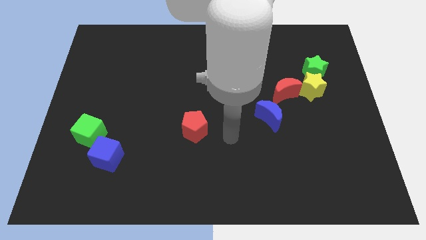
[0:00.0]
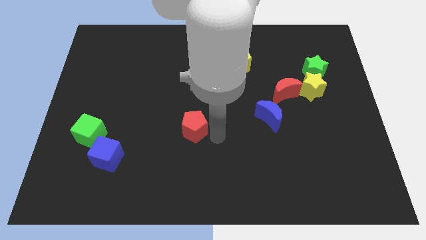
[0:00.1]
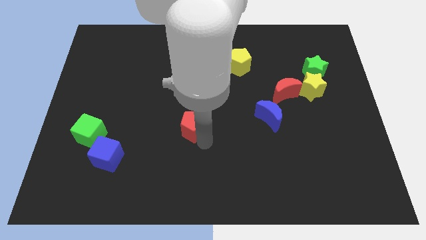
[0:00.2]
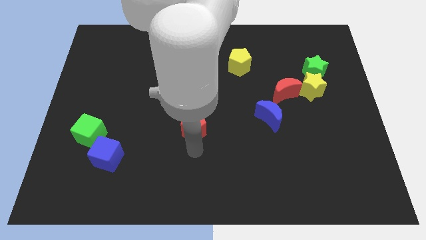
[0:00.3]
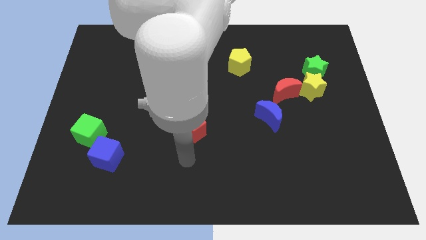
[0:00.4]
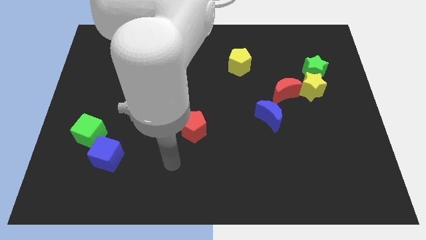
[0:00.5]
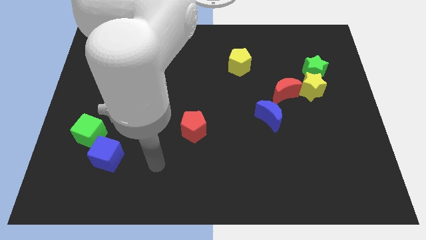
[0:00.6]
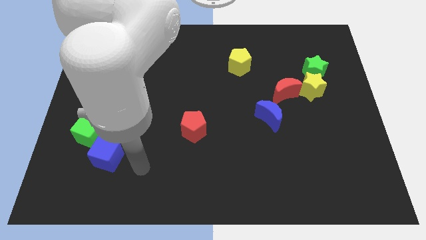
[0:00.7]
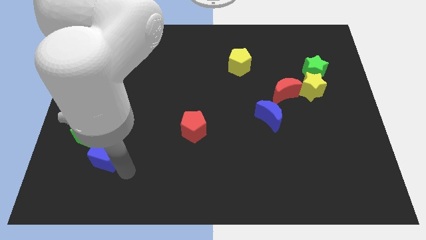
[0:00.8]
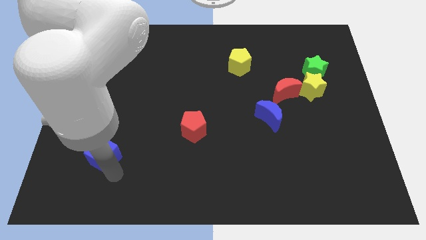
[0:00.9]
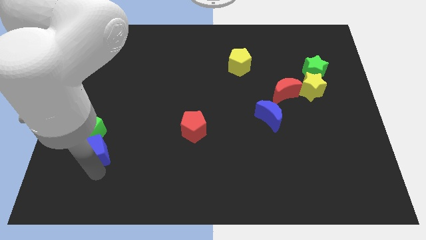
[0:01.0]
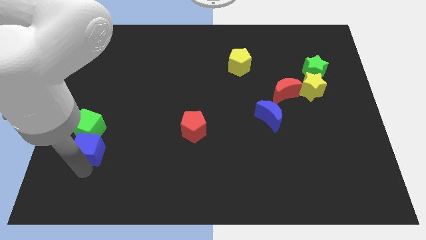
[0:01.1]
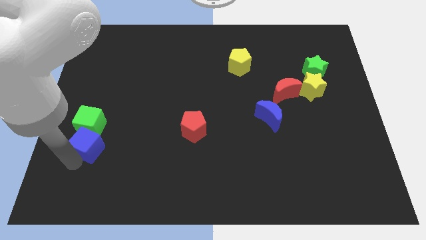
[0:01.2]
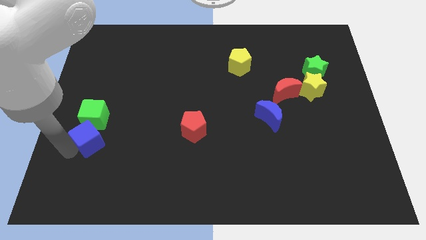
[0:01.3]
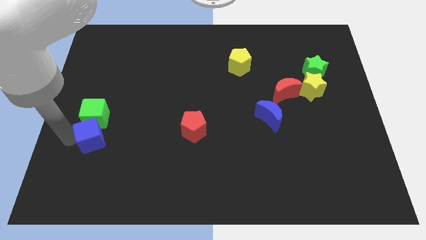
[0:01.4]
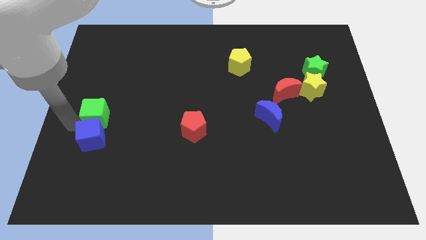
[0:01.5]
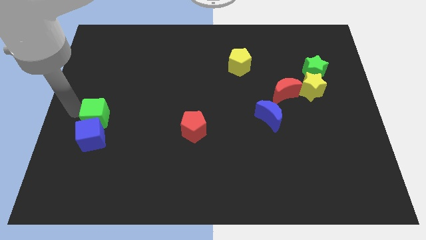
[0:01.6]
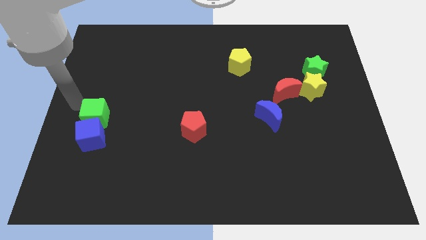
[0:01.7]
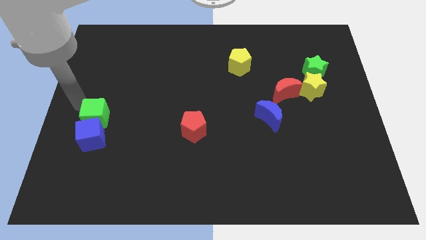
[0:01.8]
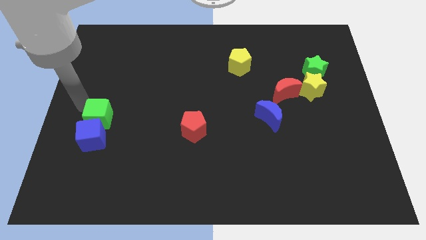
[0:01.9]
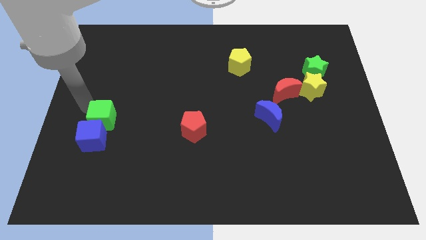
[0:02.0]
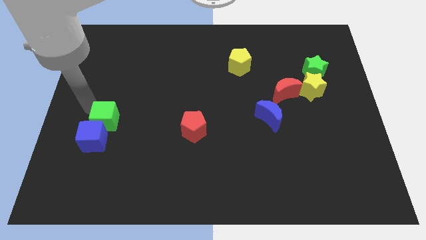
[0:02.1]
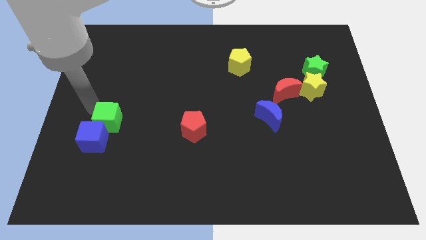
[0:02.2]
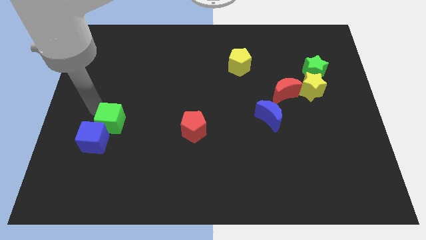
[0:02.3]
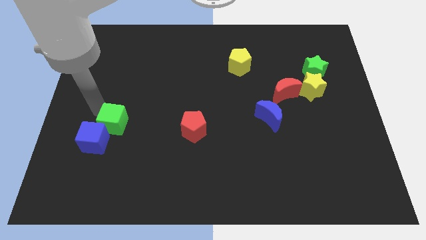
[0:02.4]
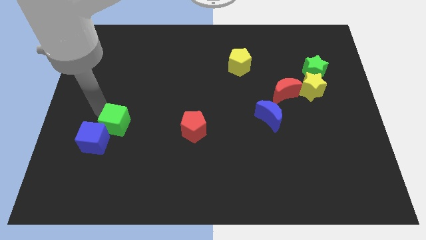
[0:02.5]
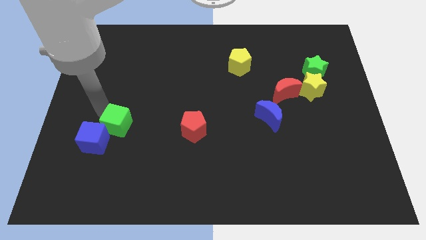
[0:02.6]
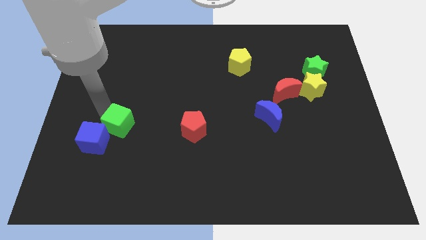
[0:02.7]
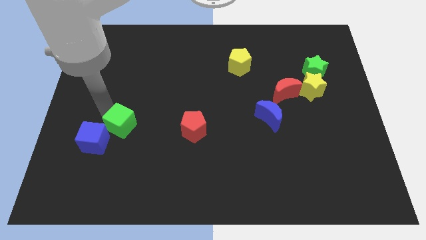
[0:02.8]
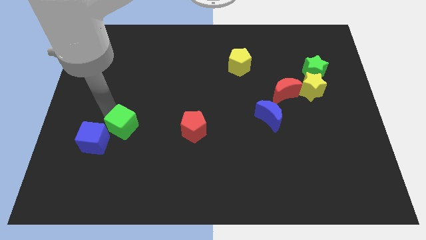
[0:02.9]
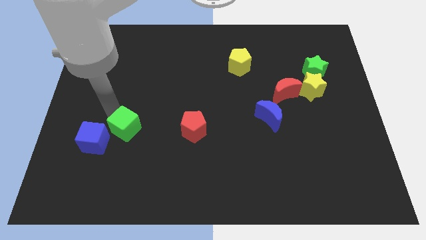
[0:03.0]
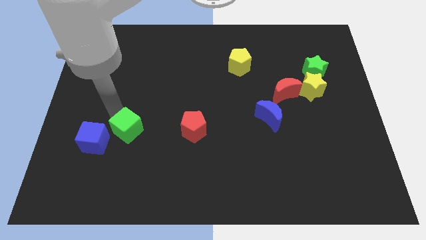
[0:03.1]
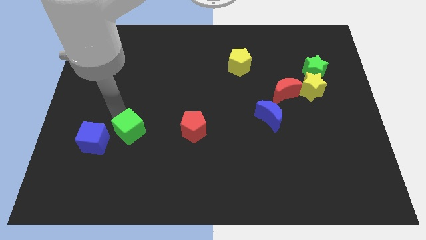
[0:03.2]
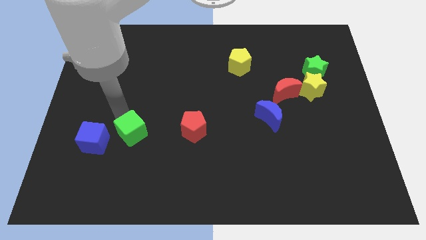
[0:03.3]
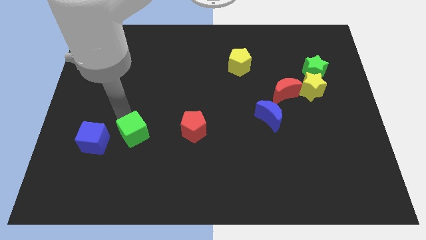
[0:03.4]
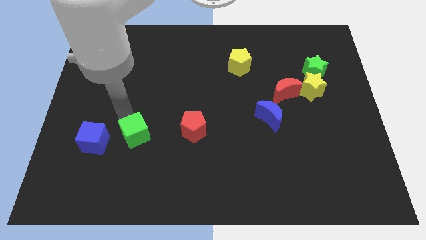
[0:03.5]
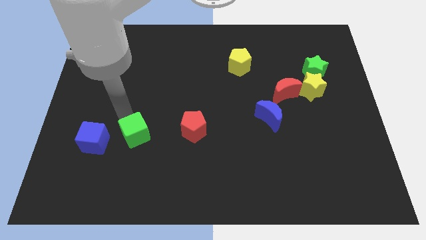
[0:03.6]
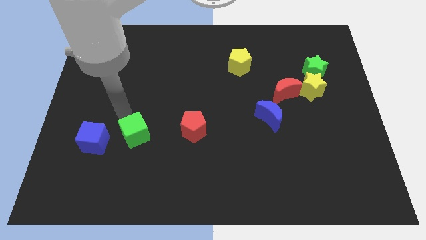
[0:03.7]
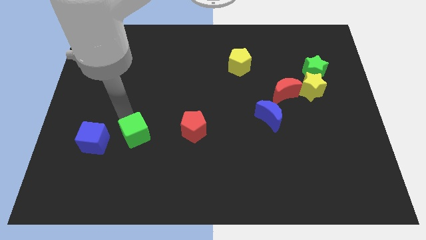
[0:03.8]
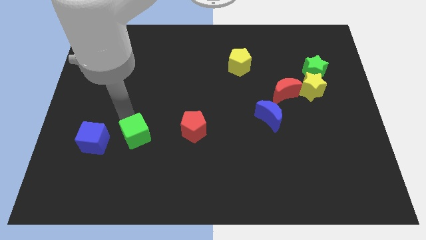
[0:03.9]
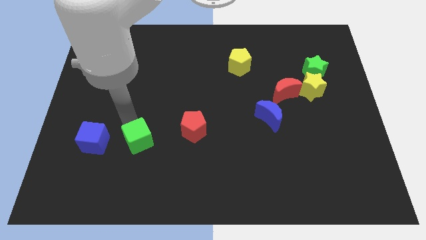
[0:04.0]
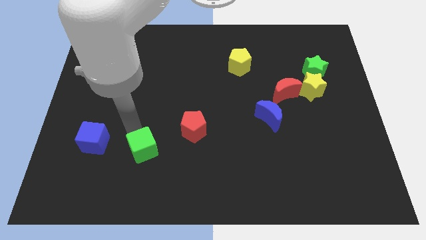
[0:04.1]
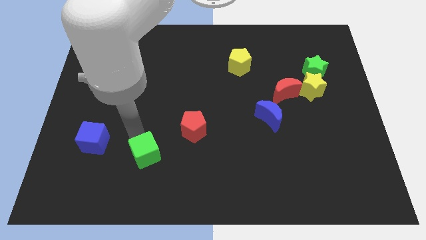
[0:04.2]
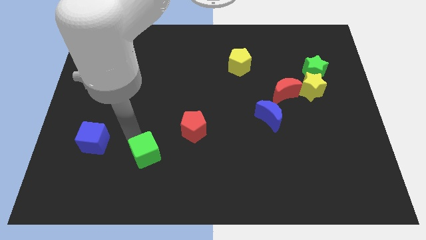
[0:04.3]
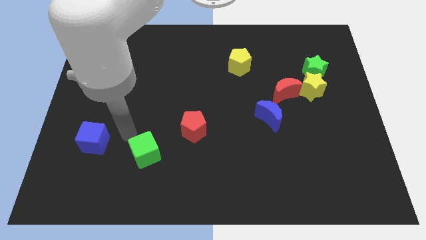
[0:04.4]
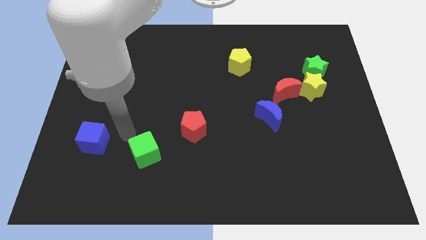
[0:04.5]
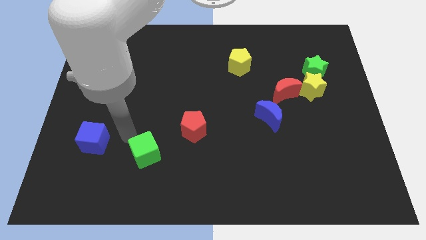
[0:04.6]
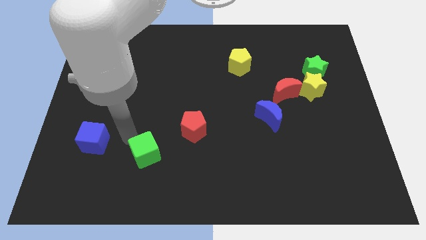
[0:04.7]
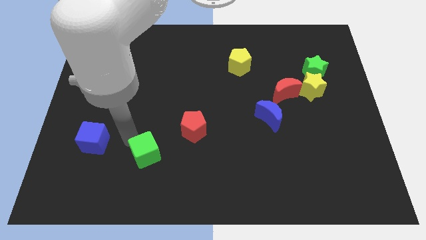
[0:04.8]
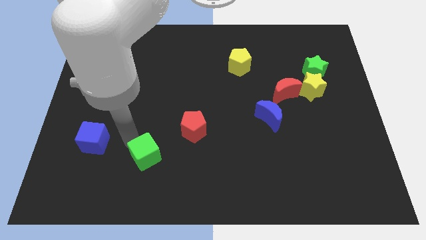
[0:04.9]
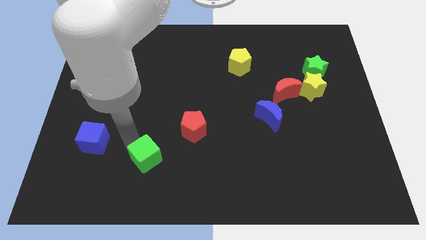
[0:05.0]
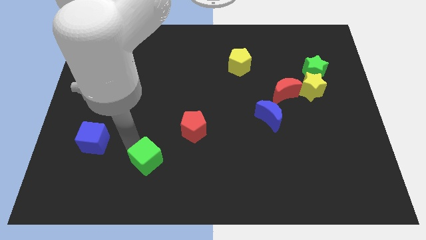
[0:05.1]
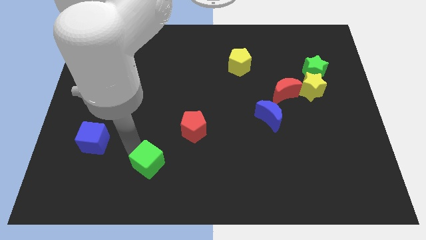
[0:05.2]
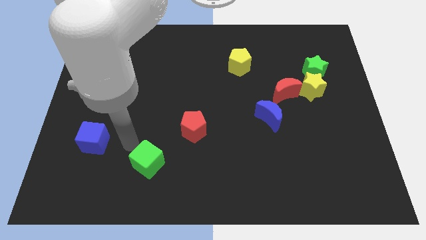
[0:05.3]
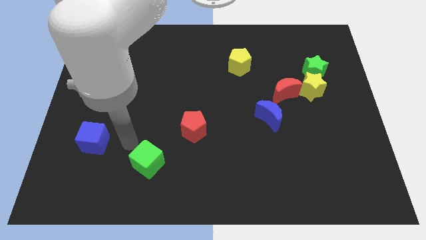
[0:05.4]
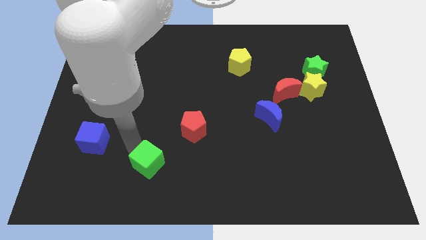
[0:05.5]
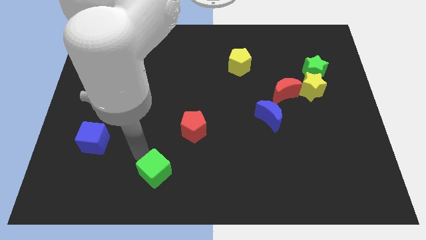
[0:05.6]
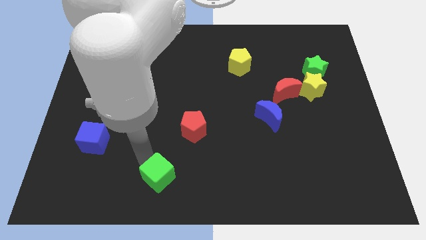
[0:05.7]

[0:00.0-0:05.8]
put the green cube to the bottom side

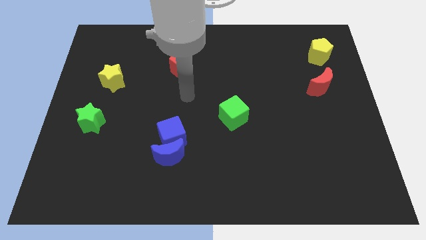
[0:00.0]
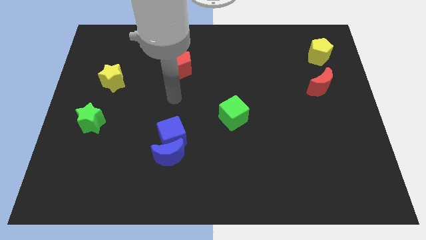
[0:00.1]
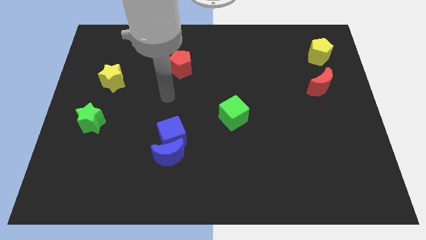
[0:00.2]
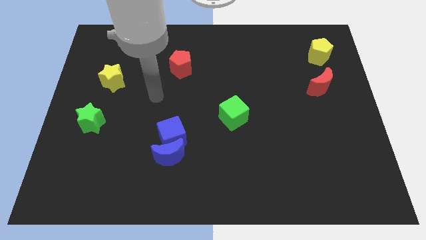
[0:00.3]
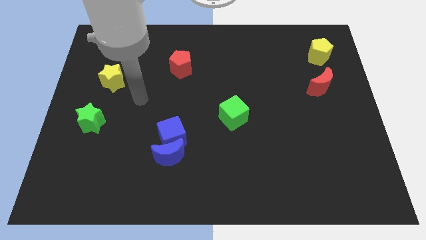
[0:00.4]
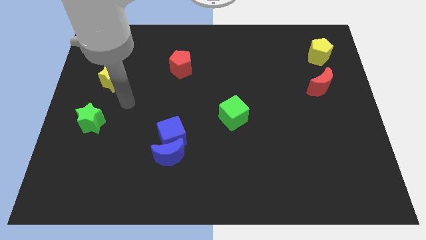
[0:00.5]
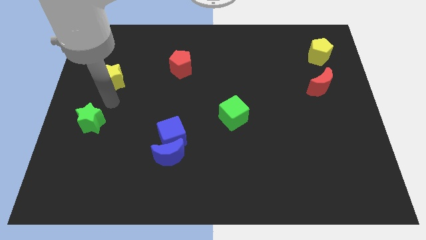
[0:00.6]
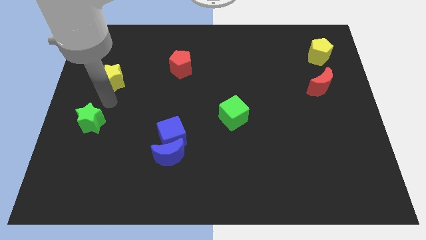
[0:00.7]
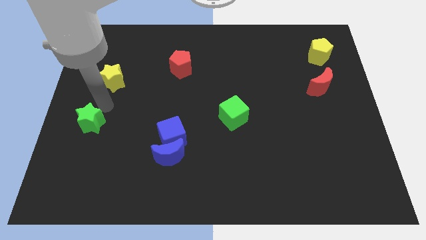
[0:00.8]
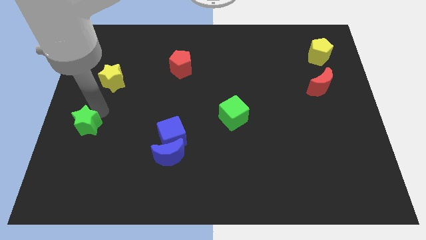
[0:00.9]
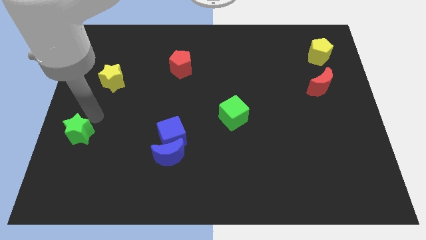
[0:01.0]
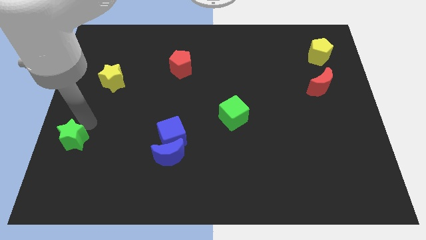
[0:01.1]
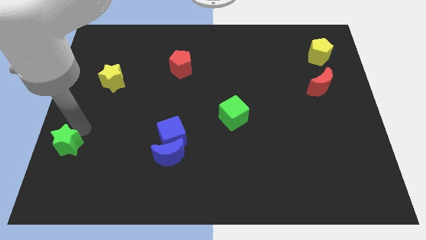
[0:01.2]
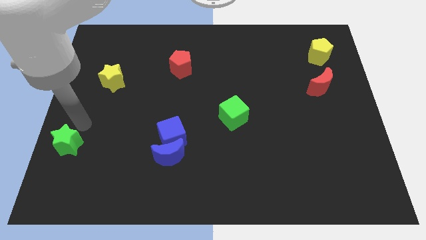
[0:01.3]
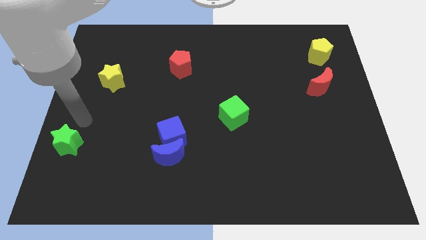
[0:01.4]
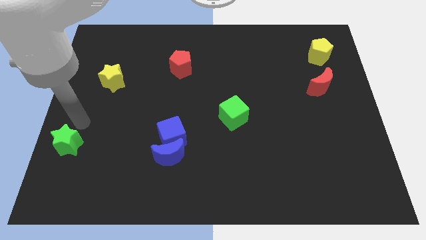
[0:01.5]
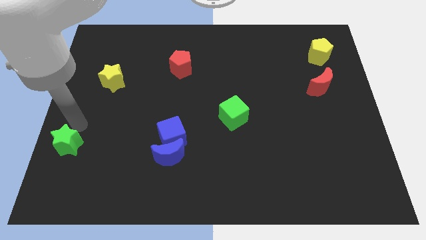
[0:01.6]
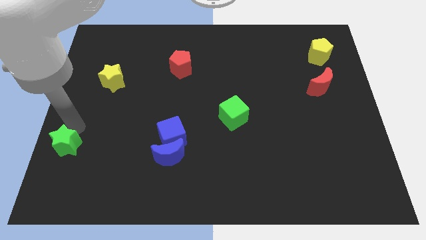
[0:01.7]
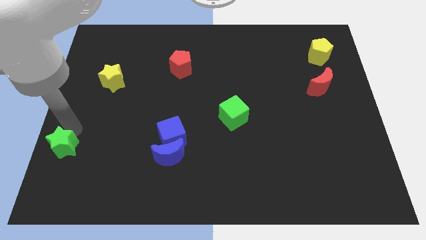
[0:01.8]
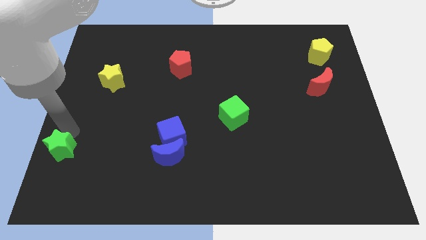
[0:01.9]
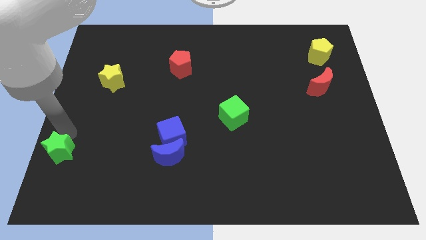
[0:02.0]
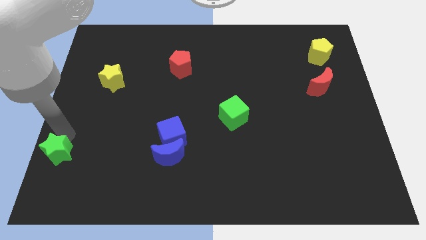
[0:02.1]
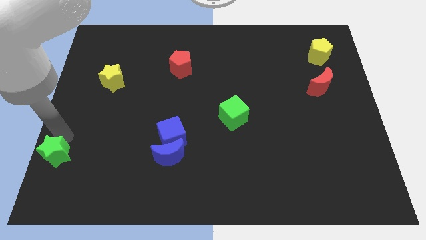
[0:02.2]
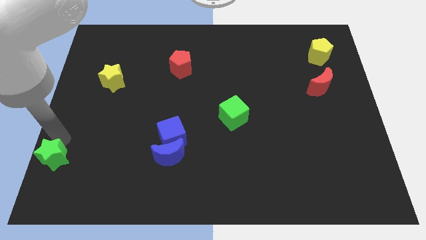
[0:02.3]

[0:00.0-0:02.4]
push the green star to the lower left corner
